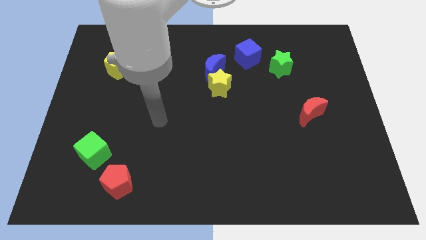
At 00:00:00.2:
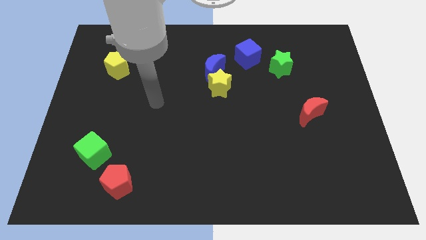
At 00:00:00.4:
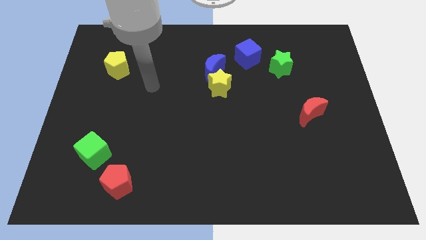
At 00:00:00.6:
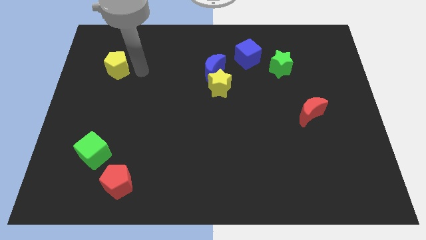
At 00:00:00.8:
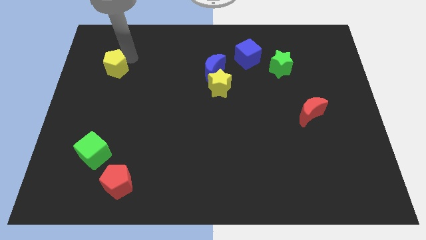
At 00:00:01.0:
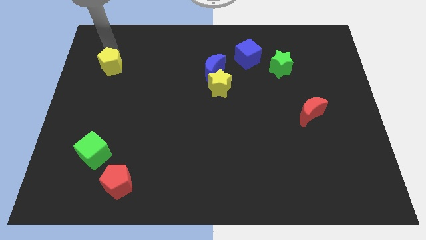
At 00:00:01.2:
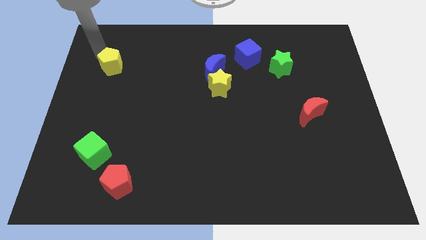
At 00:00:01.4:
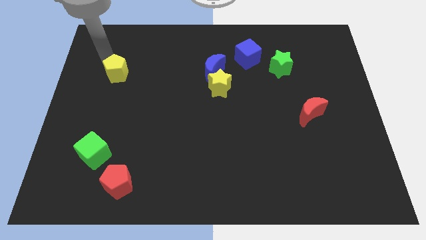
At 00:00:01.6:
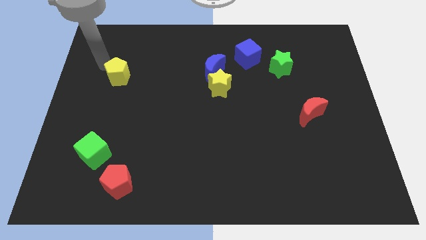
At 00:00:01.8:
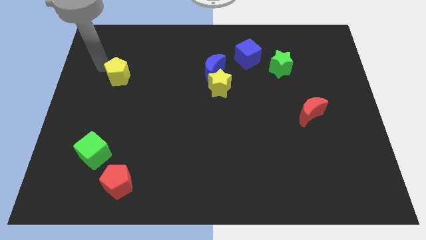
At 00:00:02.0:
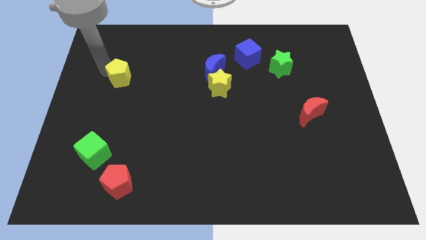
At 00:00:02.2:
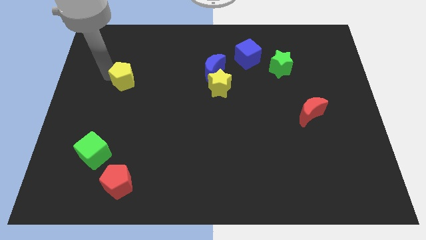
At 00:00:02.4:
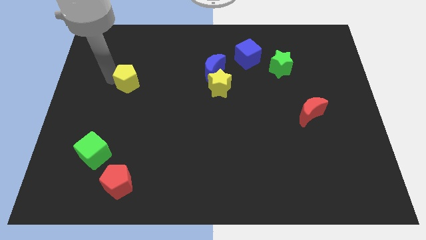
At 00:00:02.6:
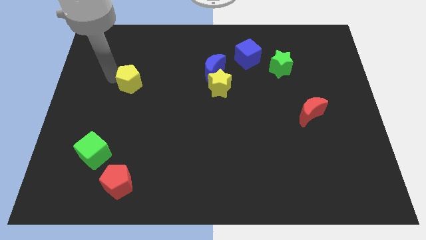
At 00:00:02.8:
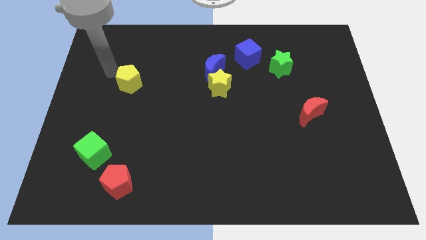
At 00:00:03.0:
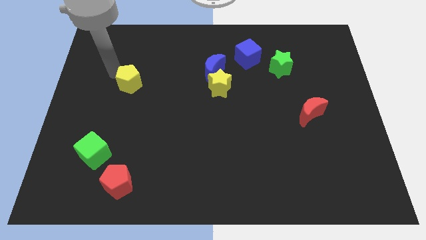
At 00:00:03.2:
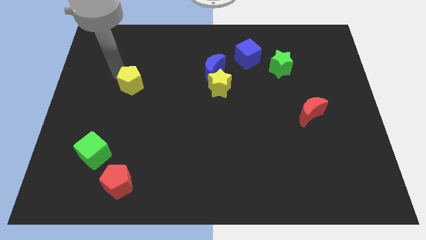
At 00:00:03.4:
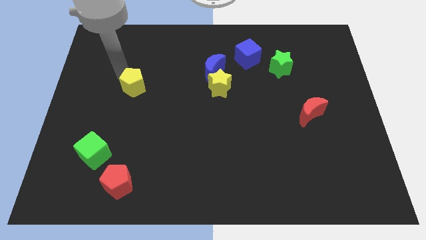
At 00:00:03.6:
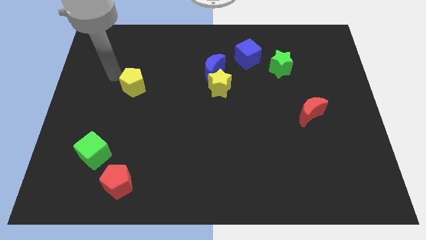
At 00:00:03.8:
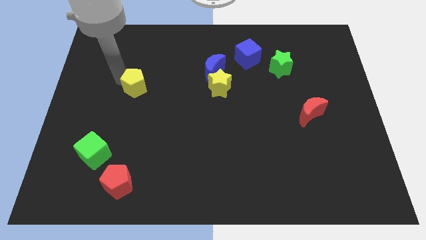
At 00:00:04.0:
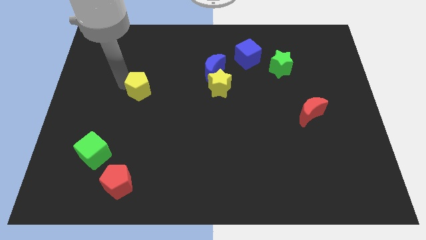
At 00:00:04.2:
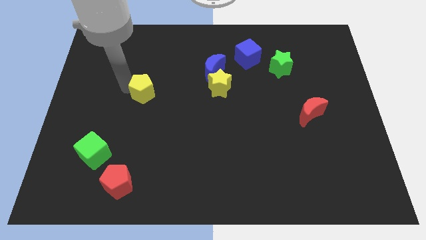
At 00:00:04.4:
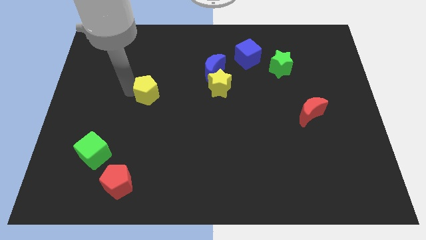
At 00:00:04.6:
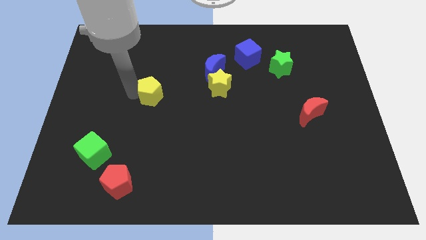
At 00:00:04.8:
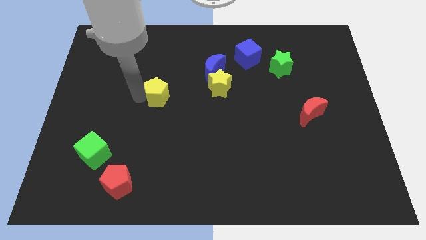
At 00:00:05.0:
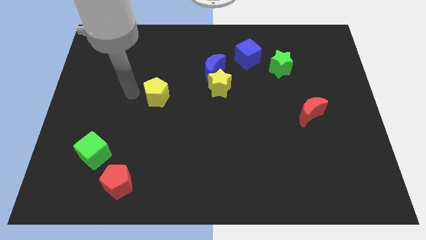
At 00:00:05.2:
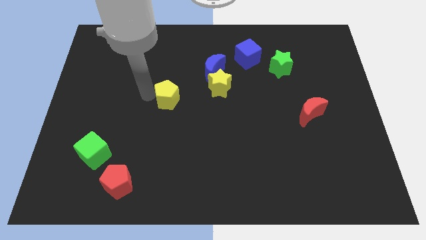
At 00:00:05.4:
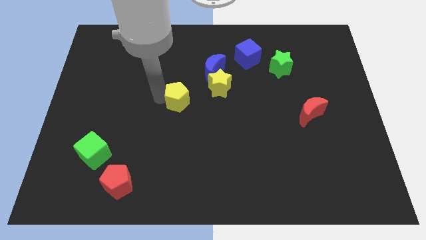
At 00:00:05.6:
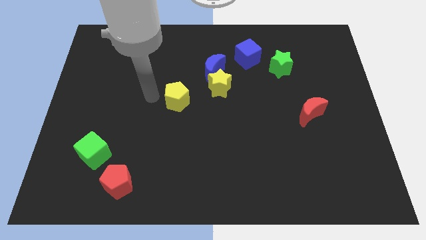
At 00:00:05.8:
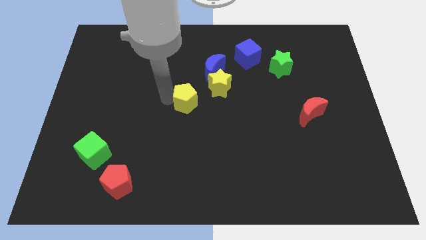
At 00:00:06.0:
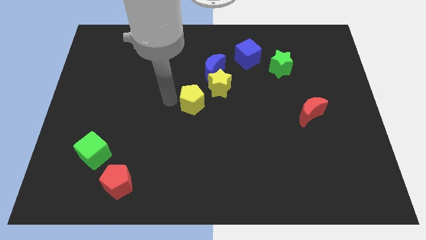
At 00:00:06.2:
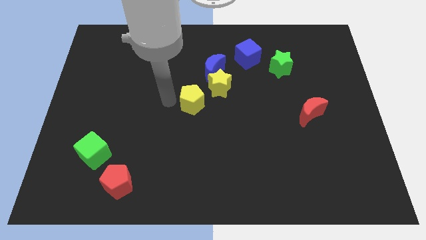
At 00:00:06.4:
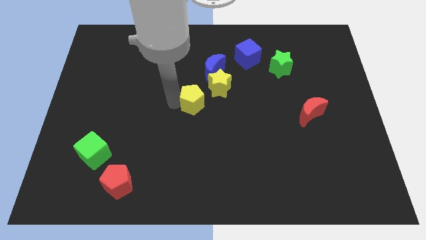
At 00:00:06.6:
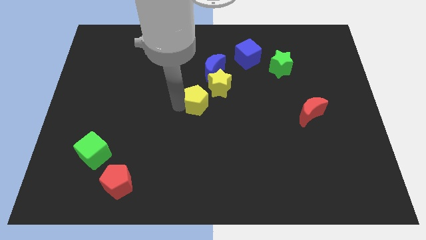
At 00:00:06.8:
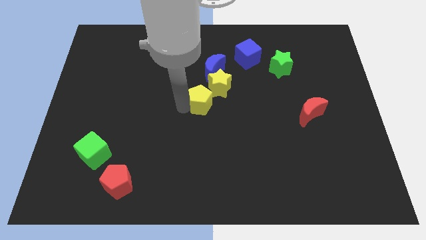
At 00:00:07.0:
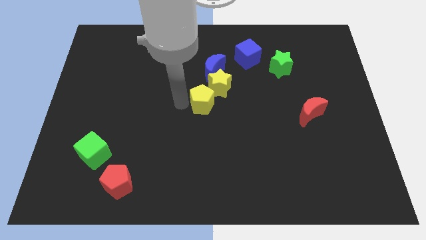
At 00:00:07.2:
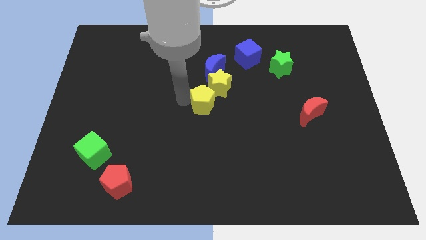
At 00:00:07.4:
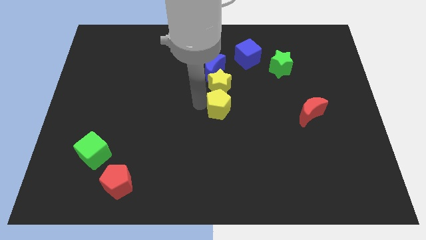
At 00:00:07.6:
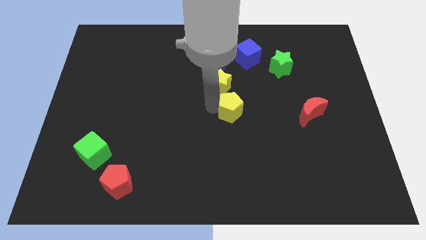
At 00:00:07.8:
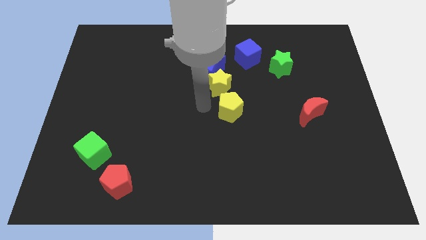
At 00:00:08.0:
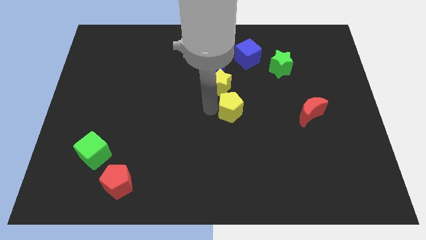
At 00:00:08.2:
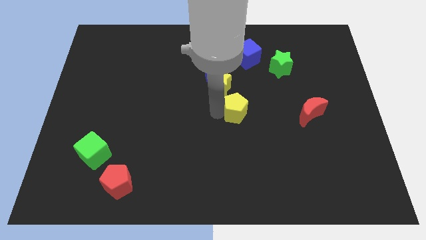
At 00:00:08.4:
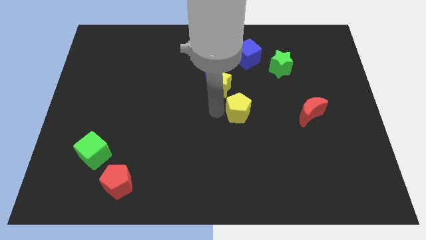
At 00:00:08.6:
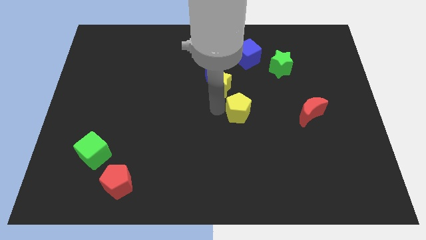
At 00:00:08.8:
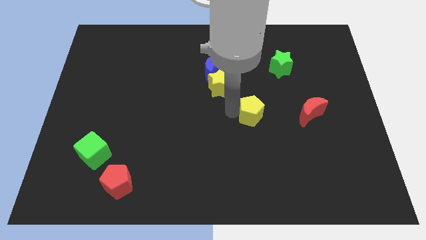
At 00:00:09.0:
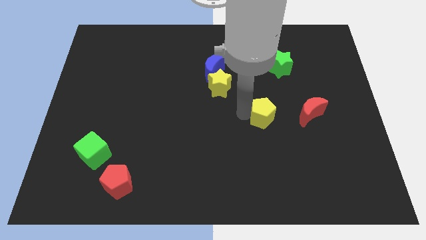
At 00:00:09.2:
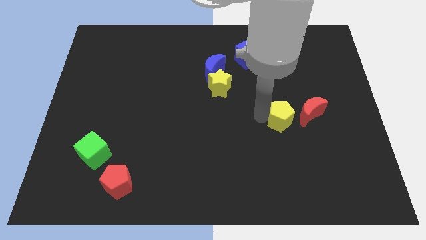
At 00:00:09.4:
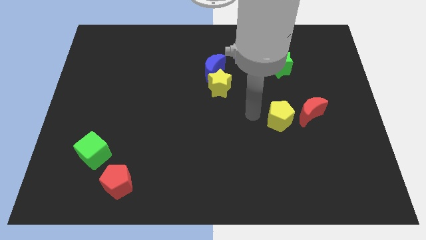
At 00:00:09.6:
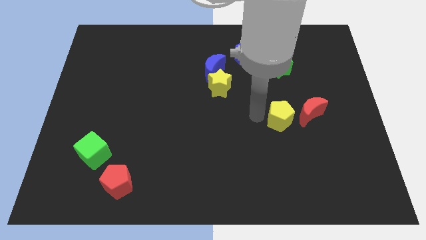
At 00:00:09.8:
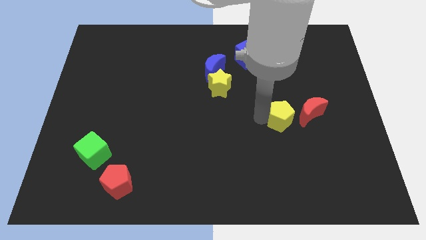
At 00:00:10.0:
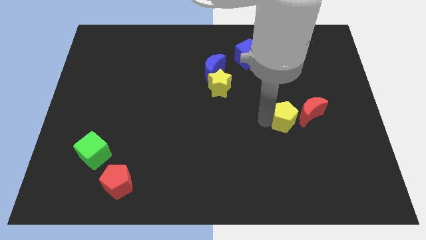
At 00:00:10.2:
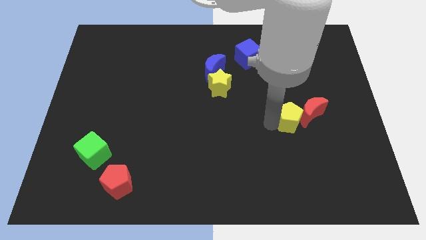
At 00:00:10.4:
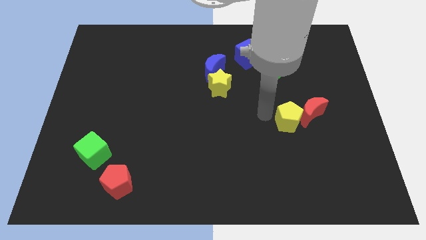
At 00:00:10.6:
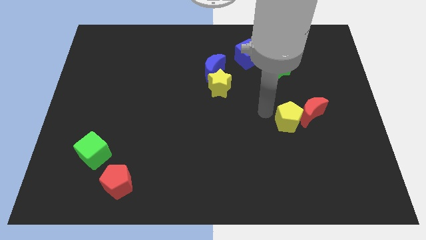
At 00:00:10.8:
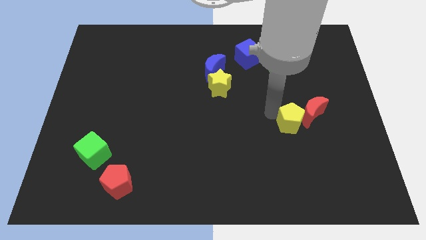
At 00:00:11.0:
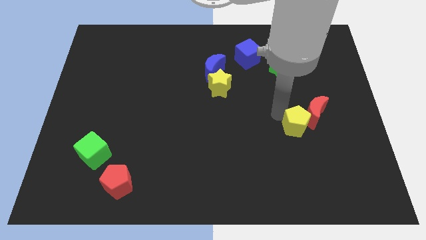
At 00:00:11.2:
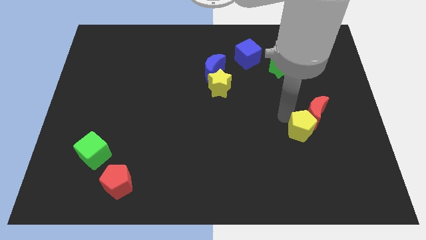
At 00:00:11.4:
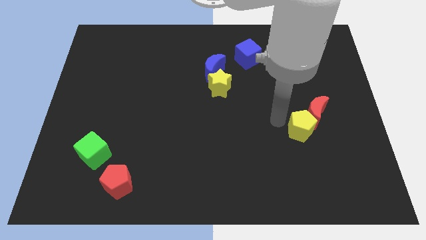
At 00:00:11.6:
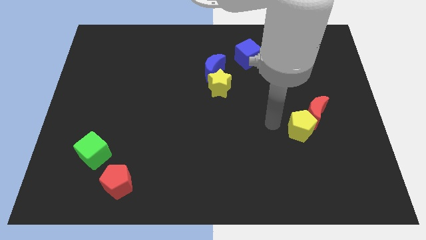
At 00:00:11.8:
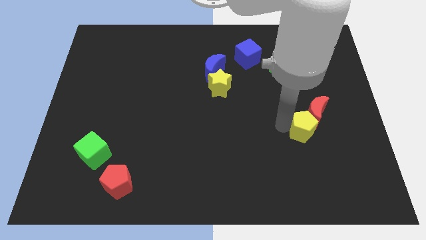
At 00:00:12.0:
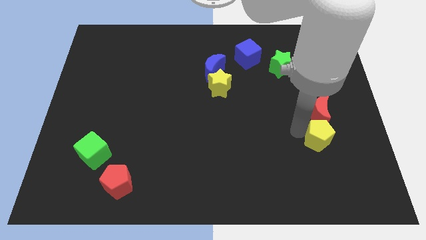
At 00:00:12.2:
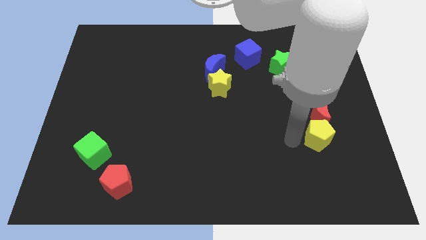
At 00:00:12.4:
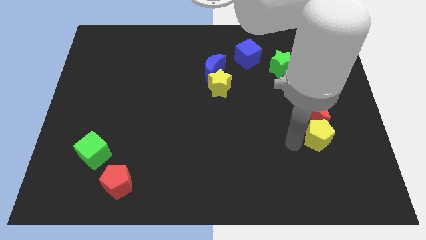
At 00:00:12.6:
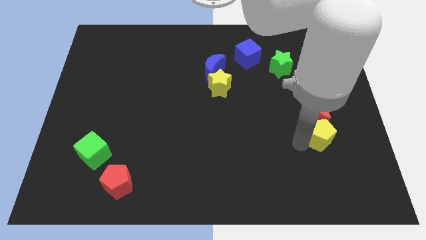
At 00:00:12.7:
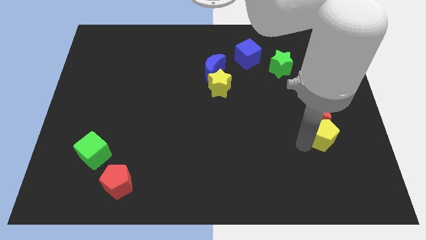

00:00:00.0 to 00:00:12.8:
push the yellow pentagon to the bottom right of the red moon

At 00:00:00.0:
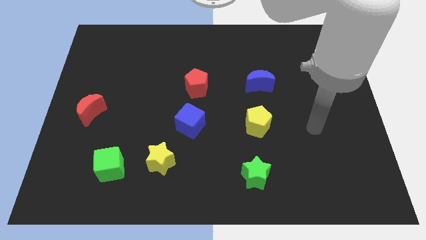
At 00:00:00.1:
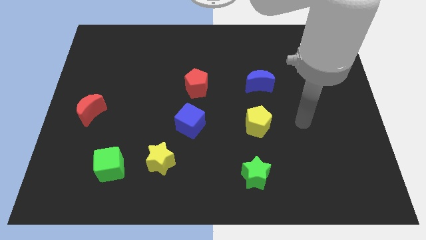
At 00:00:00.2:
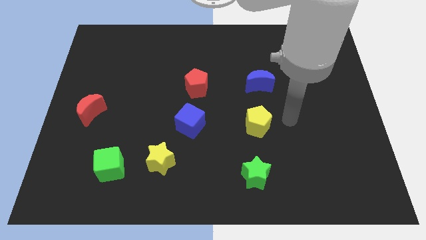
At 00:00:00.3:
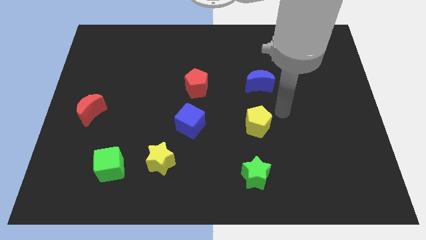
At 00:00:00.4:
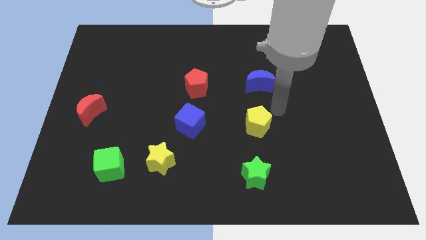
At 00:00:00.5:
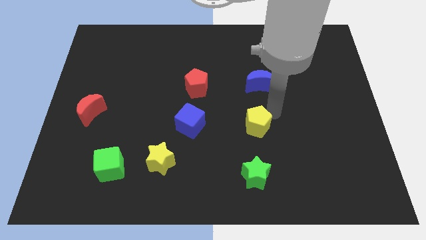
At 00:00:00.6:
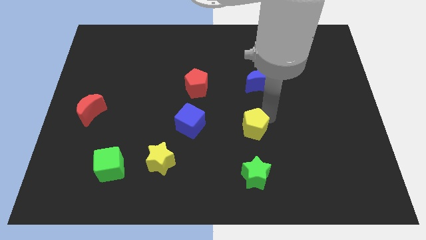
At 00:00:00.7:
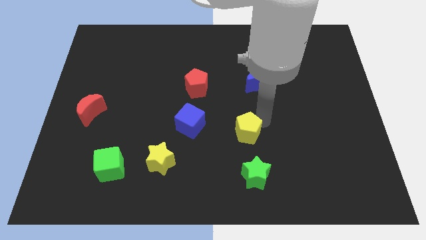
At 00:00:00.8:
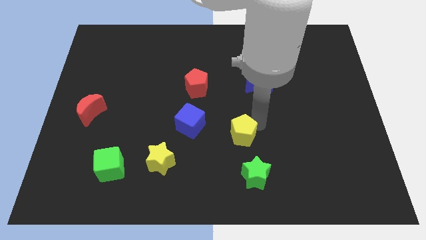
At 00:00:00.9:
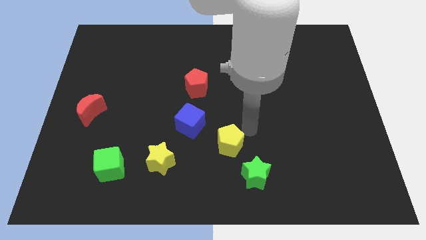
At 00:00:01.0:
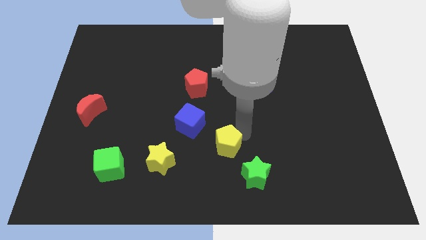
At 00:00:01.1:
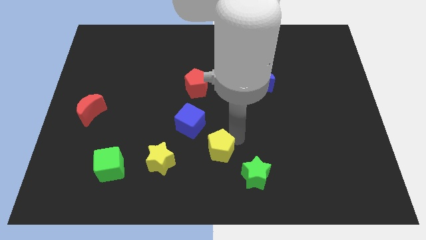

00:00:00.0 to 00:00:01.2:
slide the yellow pentagon just right of the yellow star
